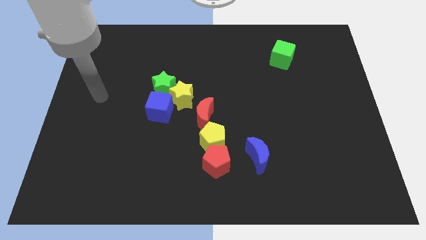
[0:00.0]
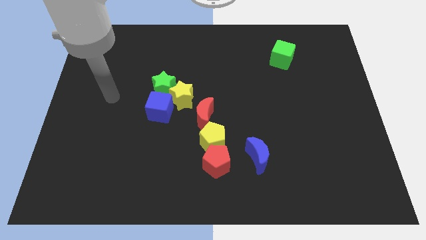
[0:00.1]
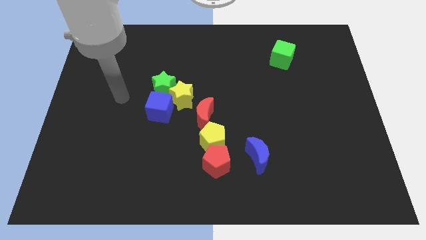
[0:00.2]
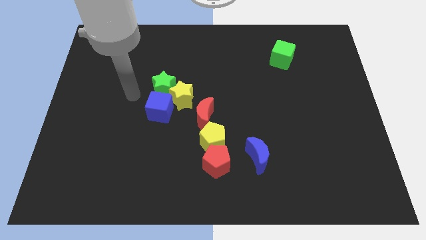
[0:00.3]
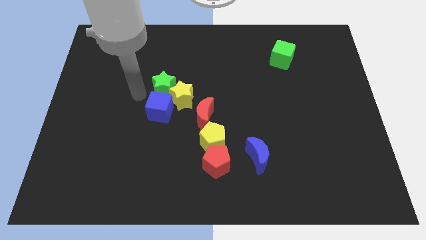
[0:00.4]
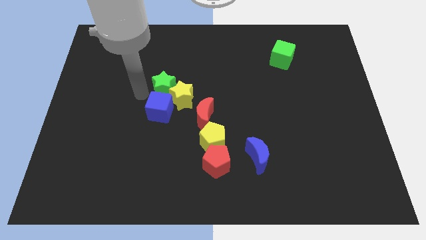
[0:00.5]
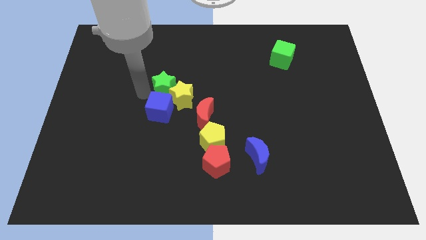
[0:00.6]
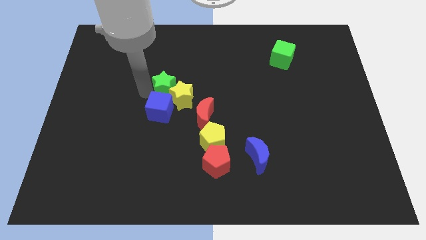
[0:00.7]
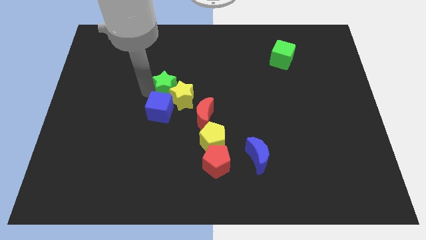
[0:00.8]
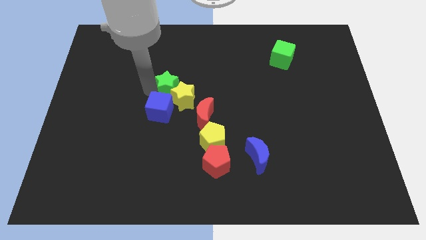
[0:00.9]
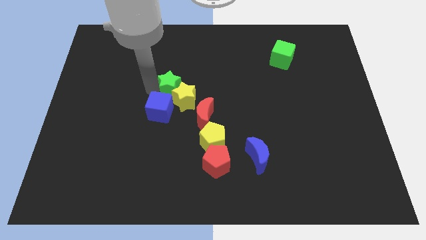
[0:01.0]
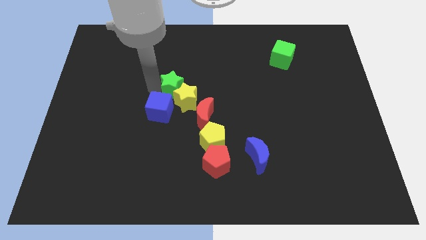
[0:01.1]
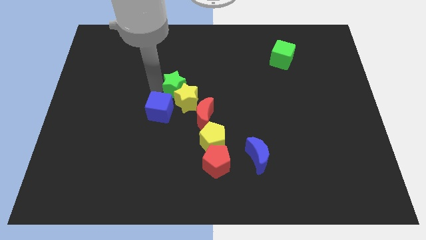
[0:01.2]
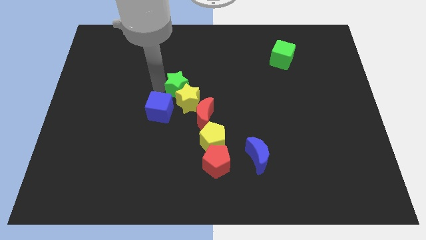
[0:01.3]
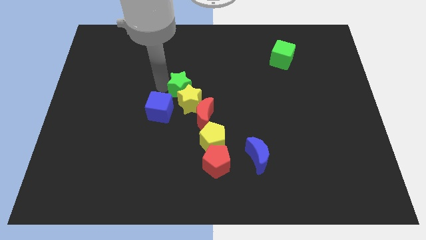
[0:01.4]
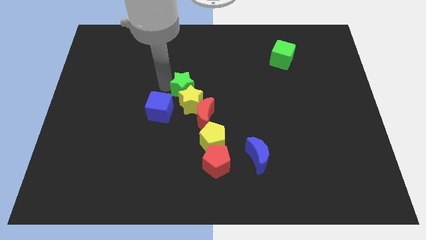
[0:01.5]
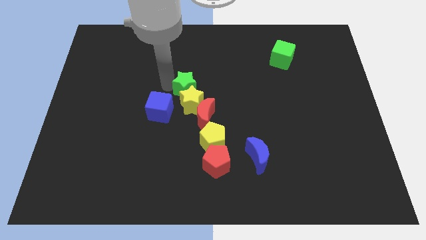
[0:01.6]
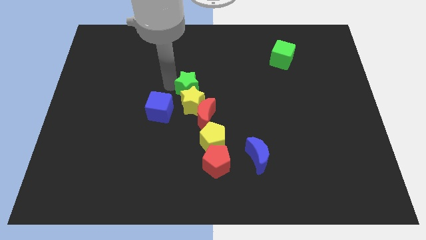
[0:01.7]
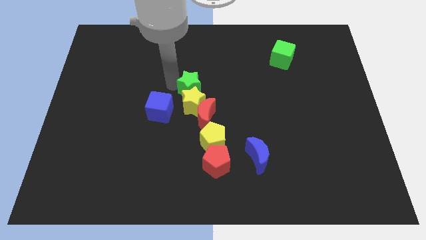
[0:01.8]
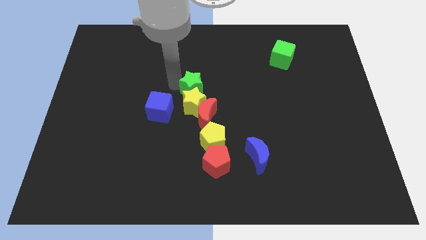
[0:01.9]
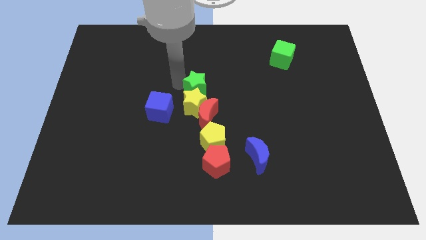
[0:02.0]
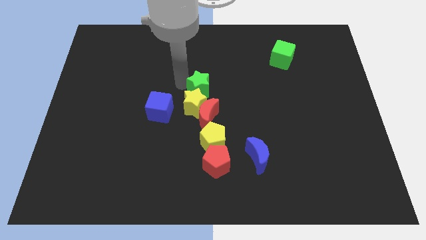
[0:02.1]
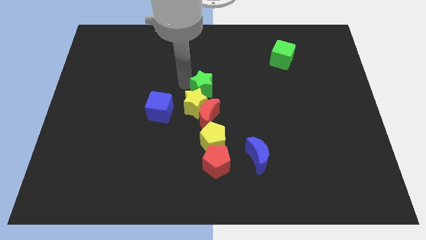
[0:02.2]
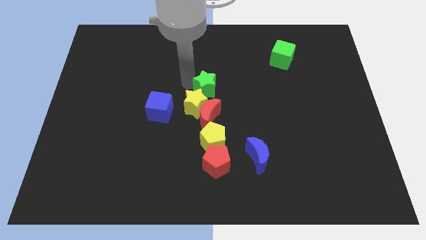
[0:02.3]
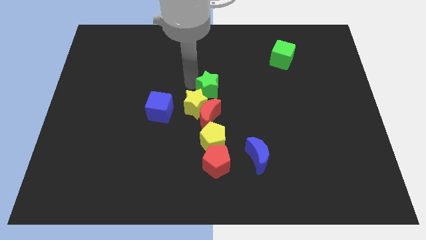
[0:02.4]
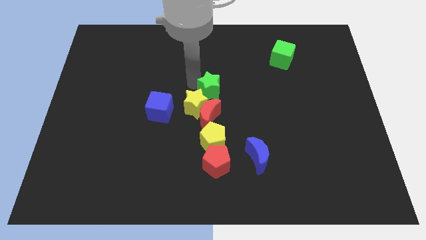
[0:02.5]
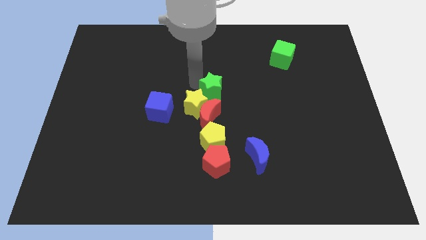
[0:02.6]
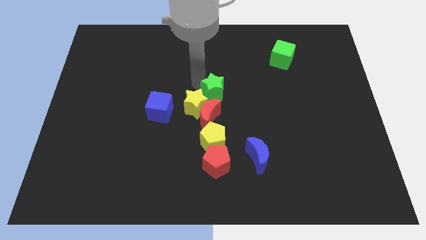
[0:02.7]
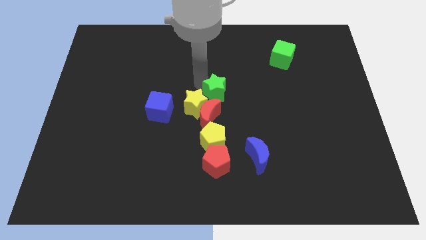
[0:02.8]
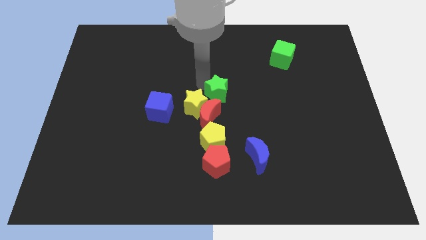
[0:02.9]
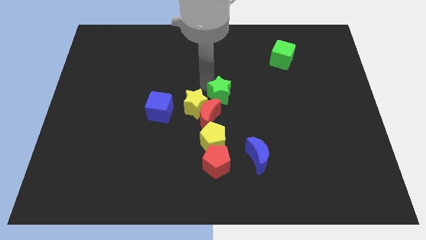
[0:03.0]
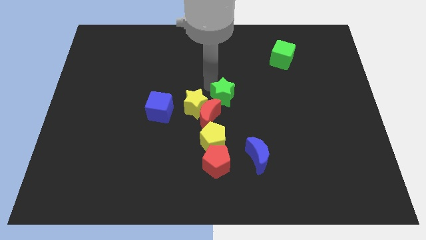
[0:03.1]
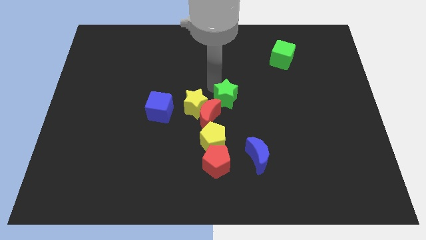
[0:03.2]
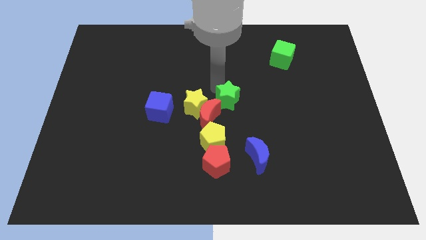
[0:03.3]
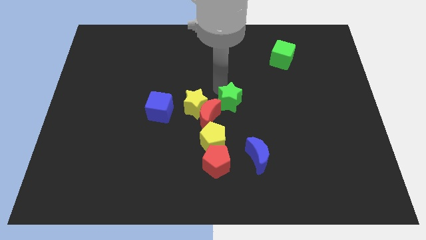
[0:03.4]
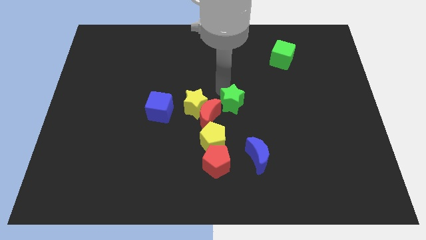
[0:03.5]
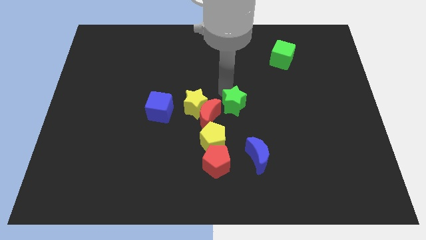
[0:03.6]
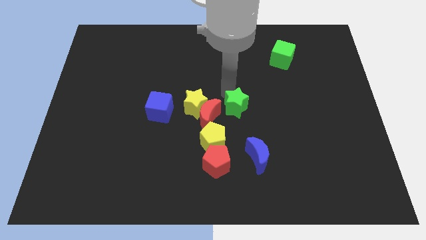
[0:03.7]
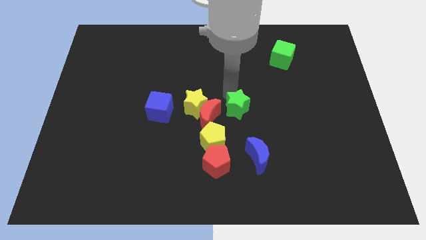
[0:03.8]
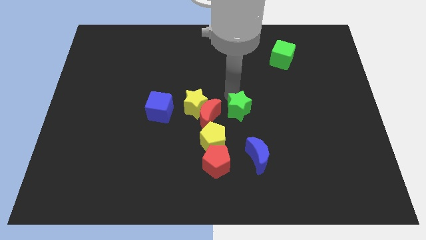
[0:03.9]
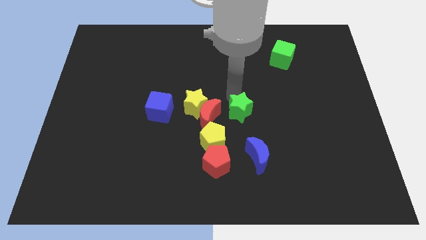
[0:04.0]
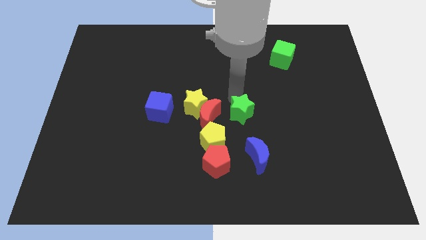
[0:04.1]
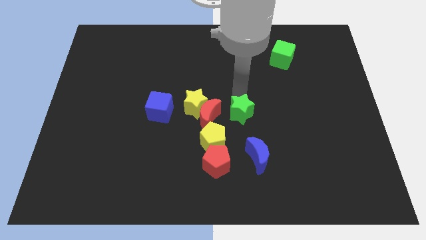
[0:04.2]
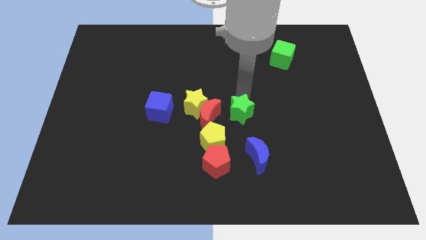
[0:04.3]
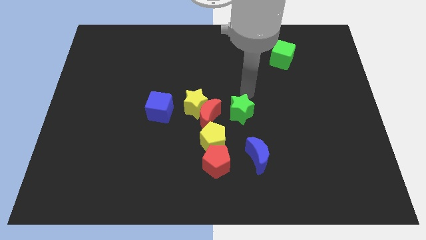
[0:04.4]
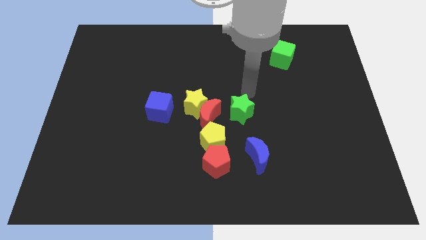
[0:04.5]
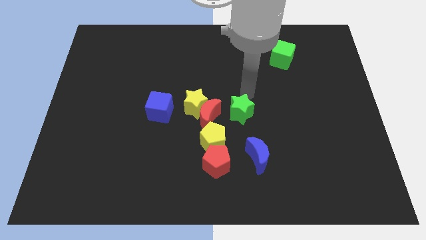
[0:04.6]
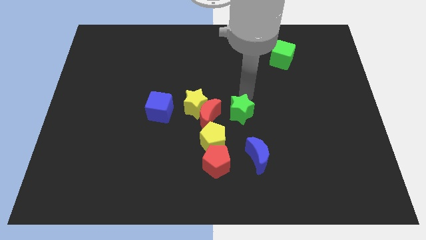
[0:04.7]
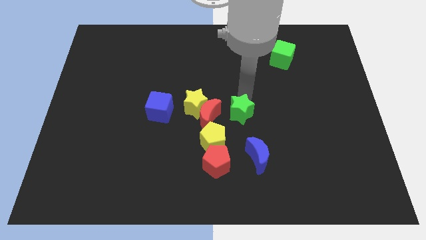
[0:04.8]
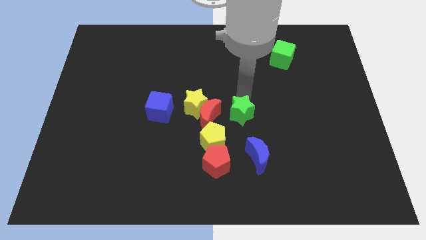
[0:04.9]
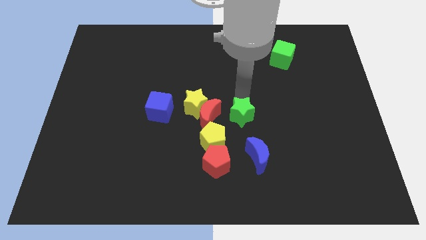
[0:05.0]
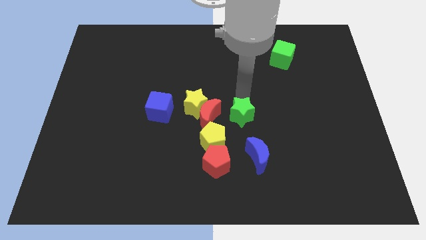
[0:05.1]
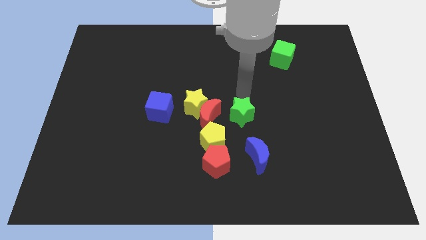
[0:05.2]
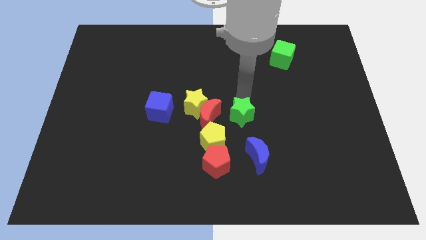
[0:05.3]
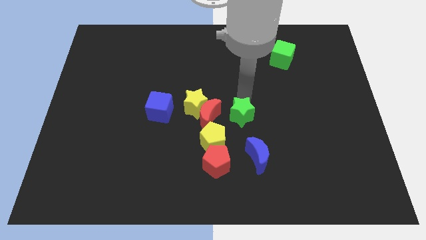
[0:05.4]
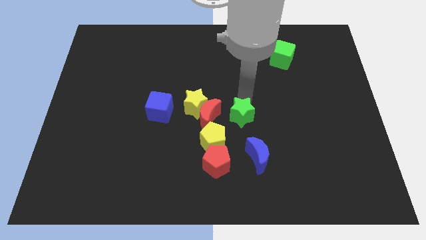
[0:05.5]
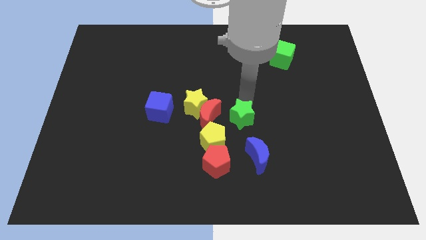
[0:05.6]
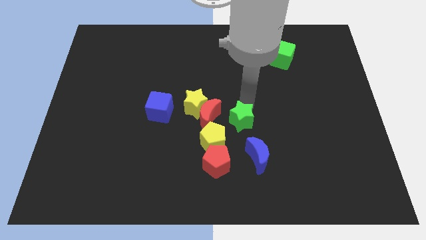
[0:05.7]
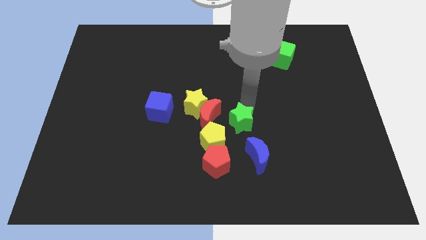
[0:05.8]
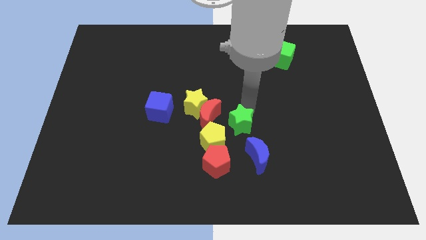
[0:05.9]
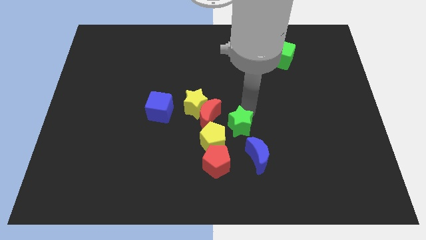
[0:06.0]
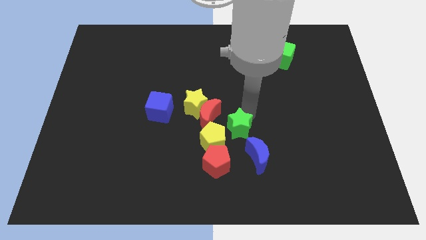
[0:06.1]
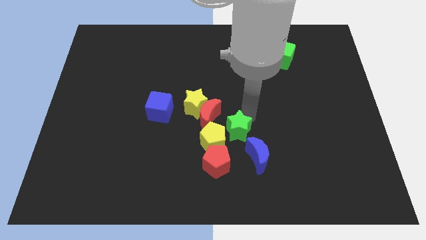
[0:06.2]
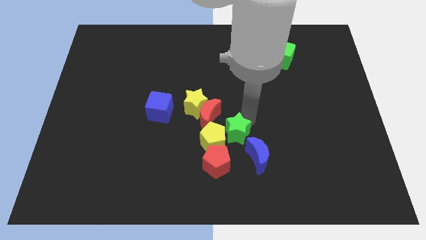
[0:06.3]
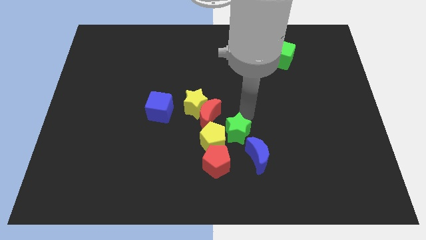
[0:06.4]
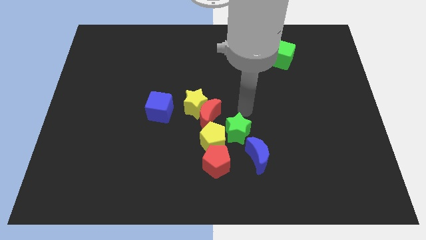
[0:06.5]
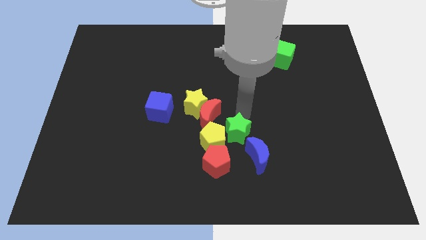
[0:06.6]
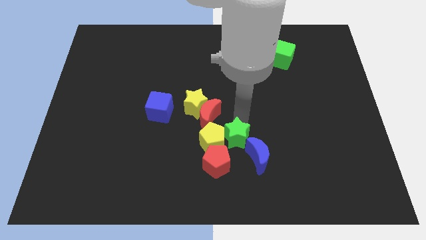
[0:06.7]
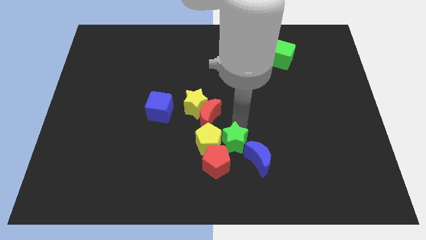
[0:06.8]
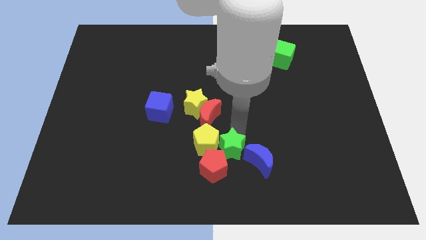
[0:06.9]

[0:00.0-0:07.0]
push the green star to the red pentagon

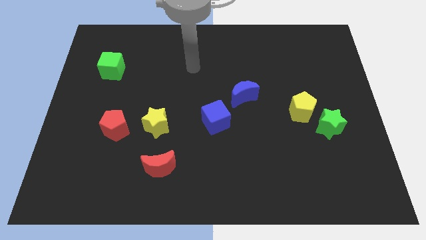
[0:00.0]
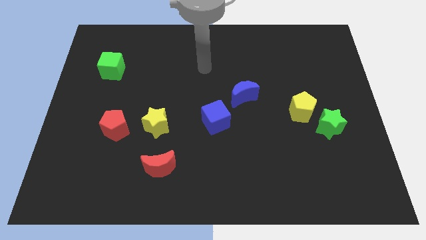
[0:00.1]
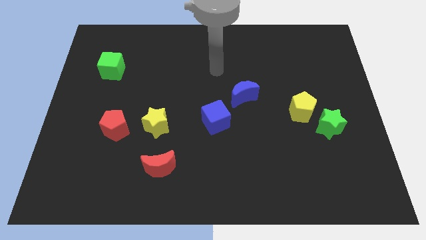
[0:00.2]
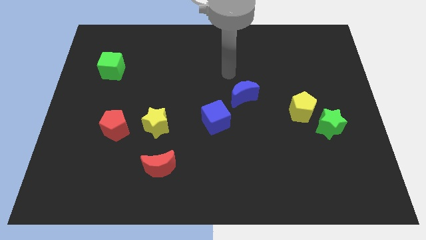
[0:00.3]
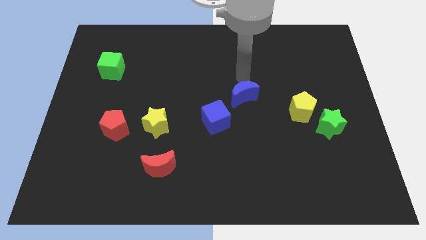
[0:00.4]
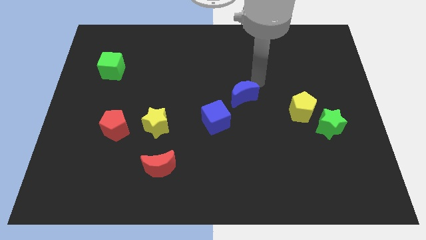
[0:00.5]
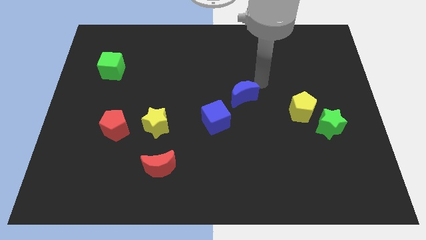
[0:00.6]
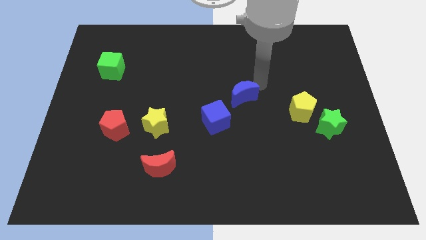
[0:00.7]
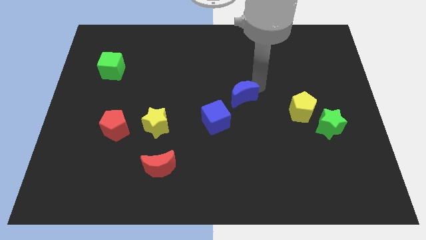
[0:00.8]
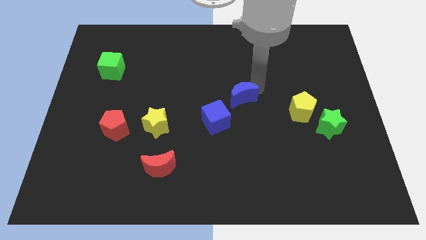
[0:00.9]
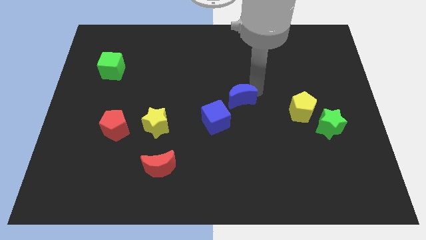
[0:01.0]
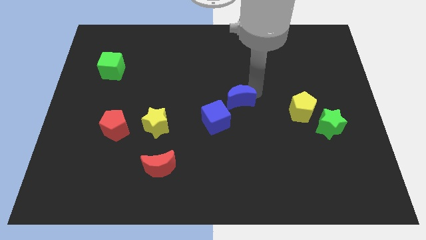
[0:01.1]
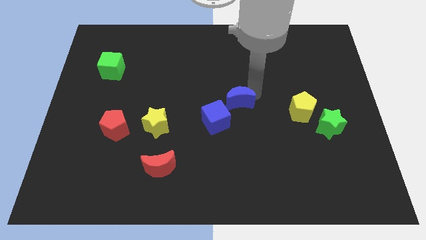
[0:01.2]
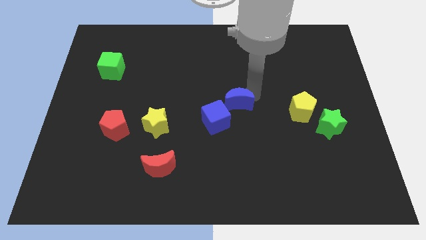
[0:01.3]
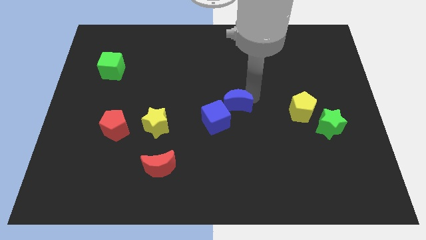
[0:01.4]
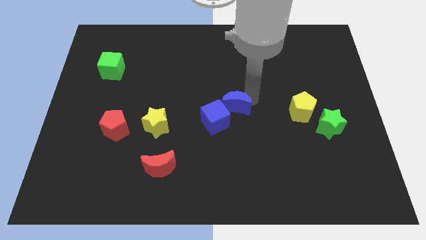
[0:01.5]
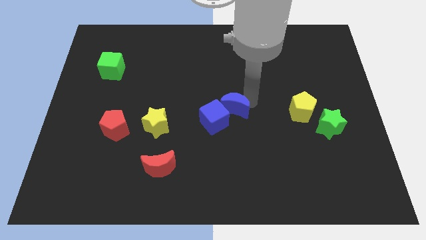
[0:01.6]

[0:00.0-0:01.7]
put the blue moon next to the blue cube
